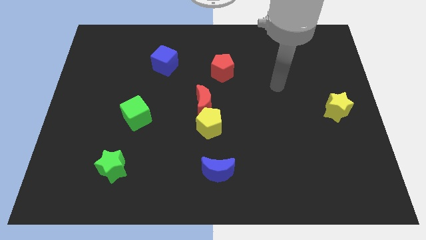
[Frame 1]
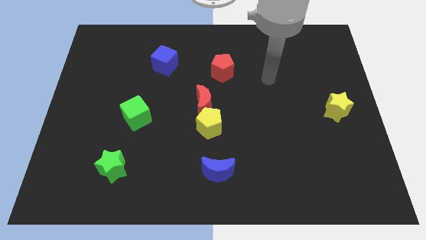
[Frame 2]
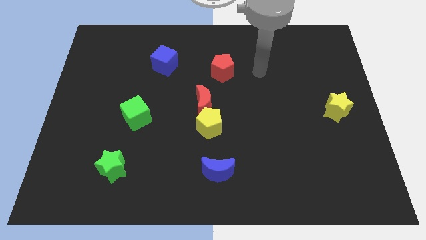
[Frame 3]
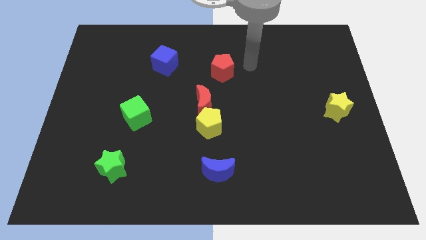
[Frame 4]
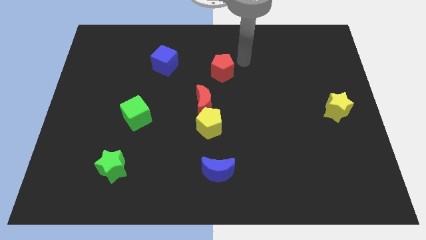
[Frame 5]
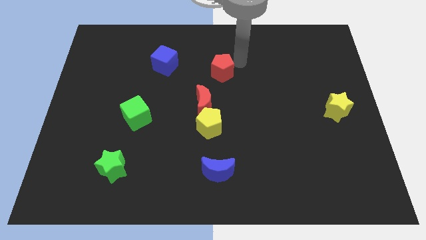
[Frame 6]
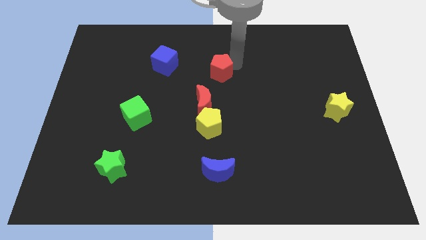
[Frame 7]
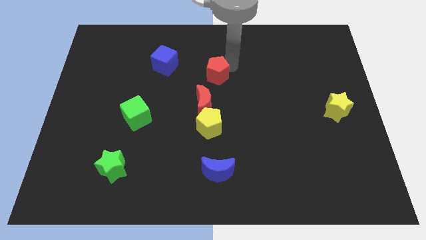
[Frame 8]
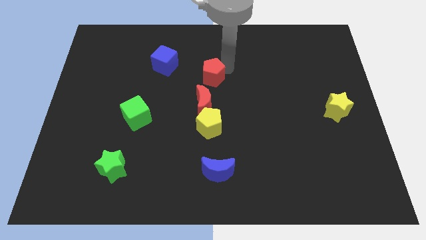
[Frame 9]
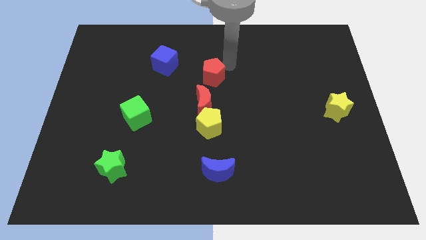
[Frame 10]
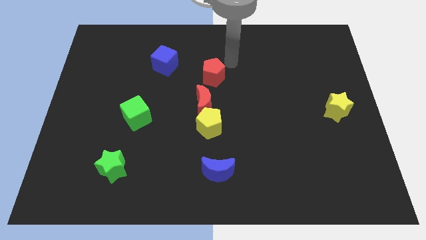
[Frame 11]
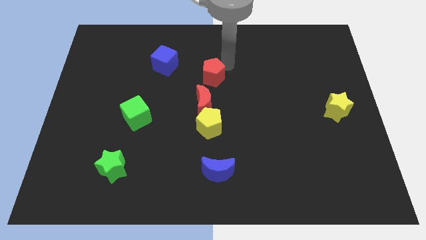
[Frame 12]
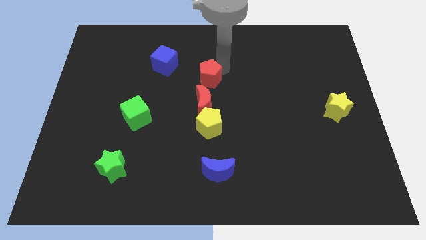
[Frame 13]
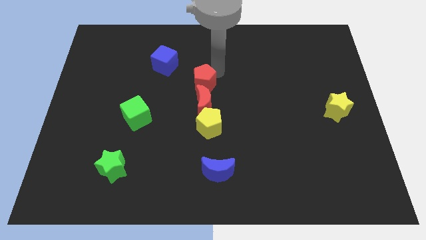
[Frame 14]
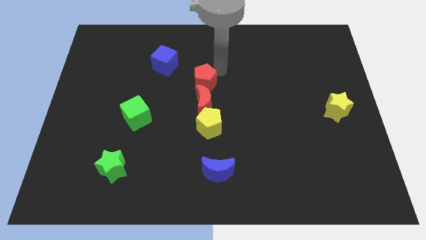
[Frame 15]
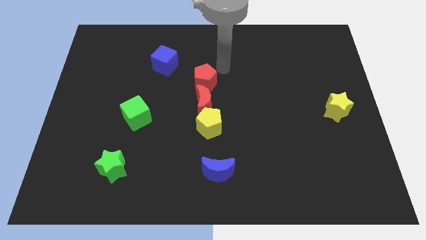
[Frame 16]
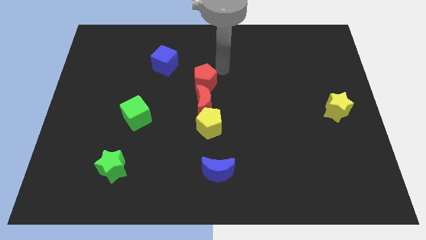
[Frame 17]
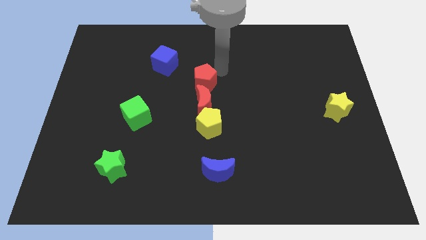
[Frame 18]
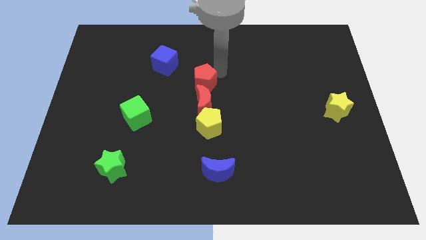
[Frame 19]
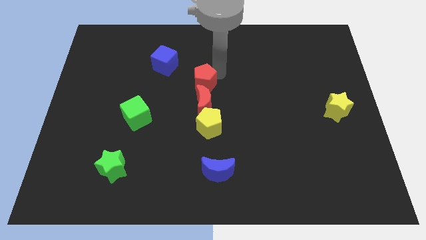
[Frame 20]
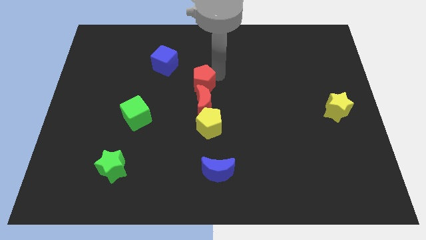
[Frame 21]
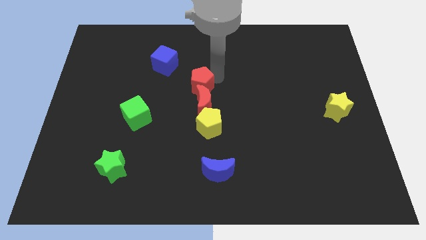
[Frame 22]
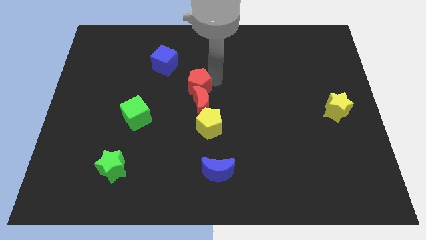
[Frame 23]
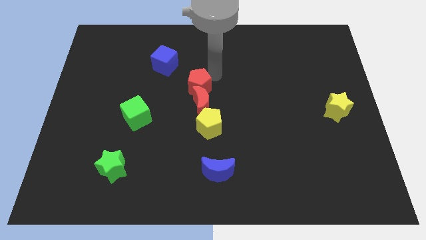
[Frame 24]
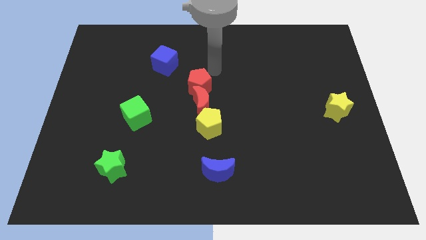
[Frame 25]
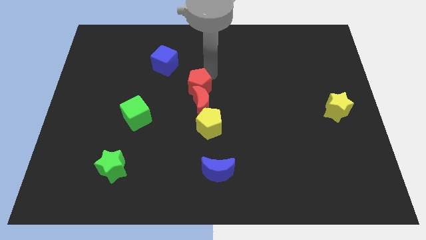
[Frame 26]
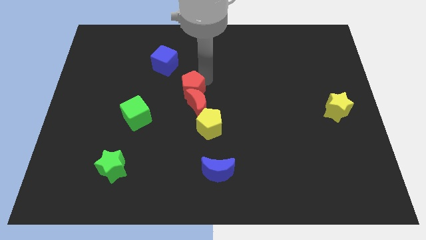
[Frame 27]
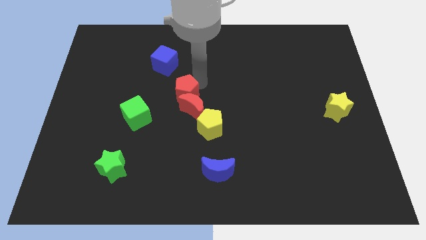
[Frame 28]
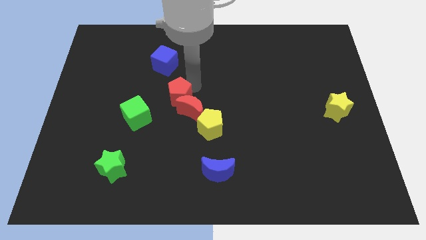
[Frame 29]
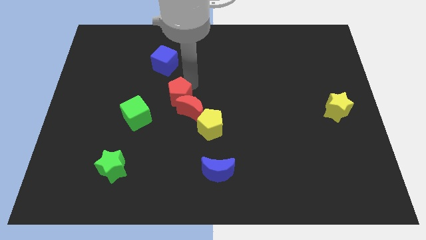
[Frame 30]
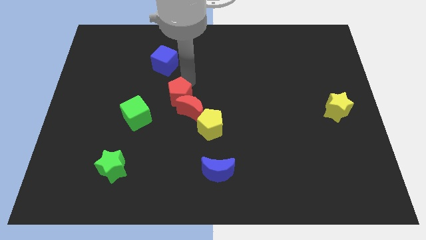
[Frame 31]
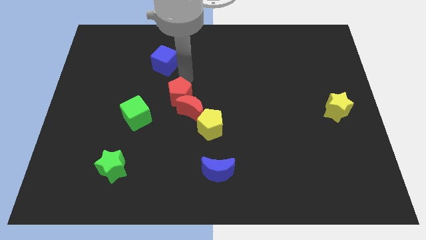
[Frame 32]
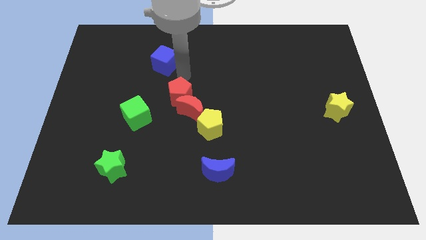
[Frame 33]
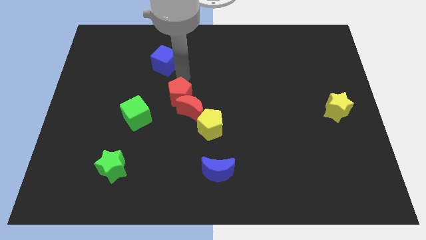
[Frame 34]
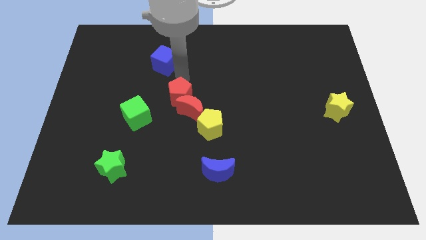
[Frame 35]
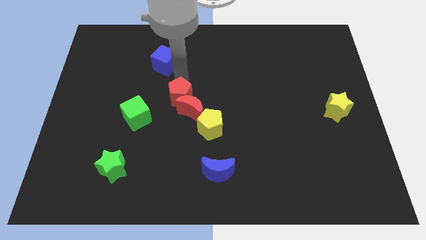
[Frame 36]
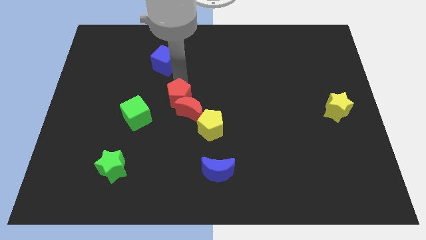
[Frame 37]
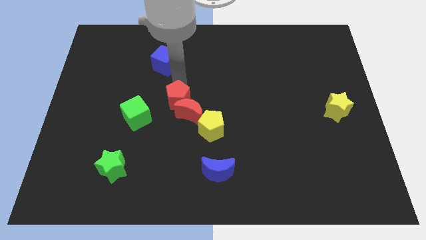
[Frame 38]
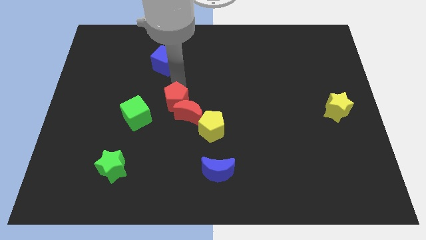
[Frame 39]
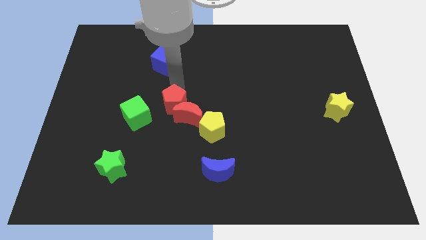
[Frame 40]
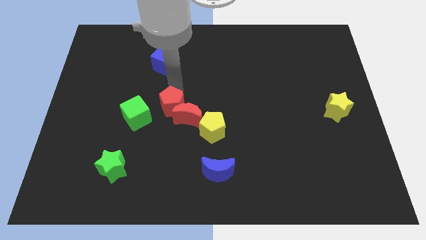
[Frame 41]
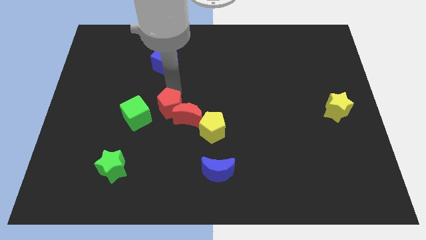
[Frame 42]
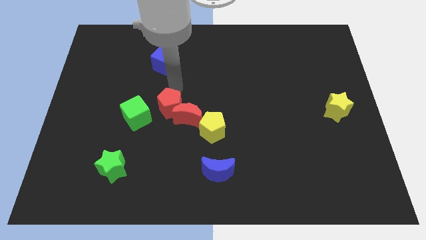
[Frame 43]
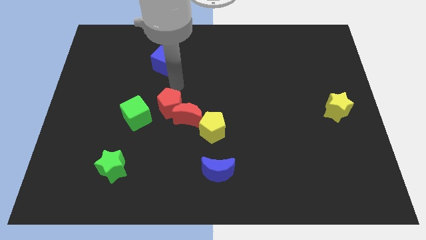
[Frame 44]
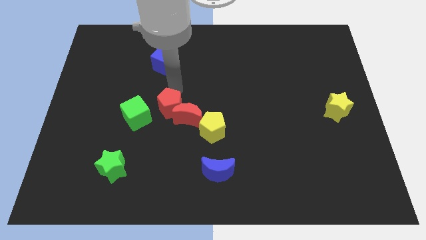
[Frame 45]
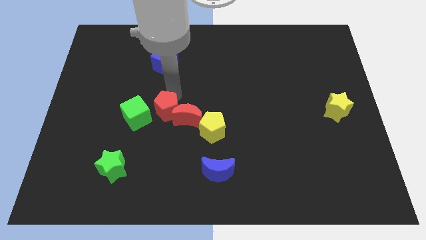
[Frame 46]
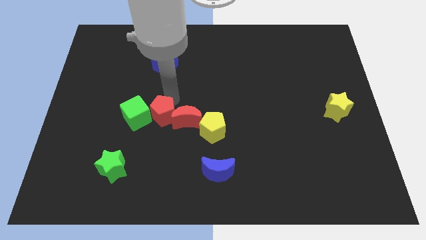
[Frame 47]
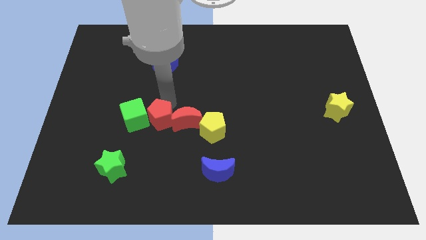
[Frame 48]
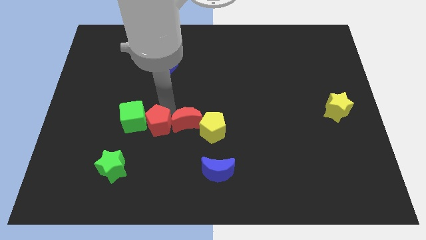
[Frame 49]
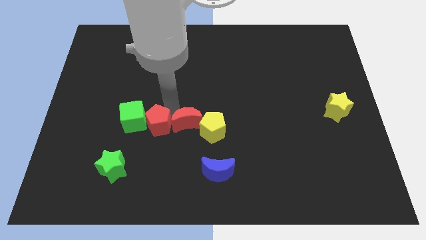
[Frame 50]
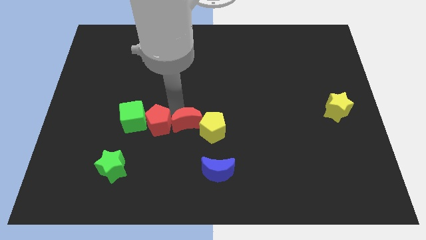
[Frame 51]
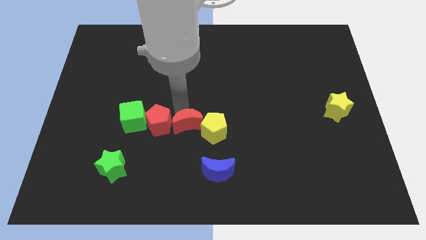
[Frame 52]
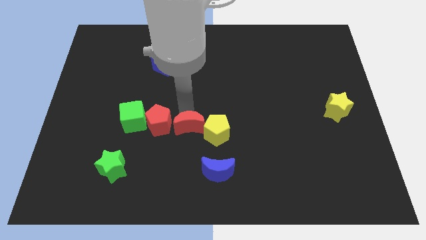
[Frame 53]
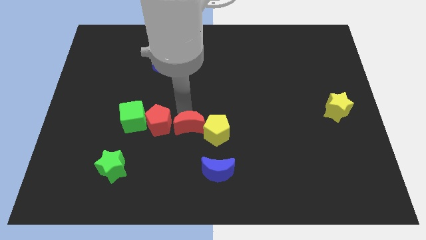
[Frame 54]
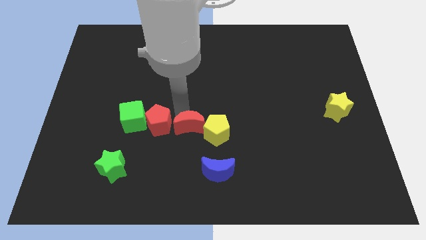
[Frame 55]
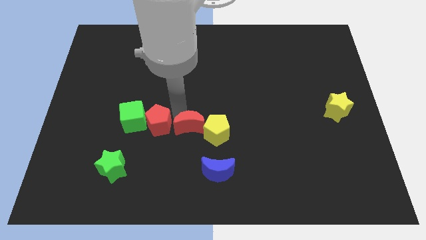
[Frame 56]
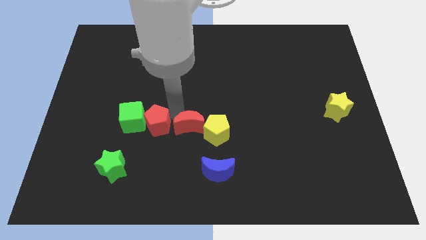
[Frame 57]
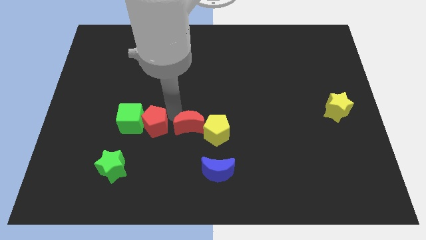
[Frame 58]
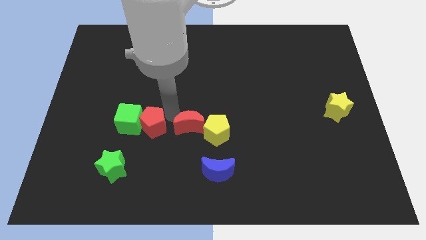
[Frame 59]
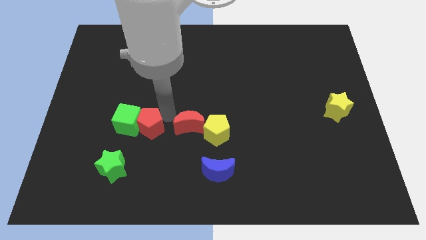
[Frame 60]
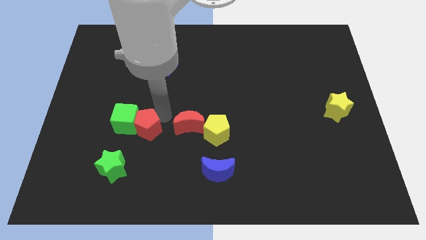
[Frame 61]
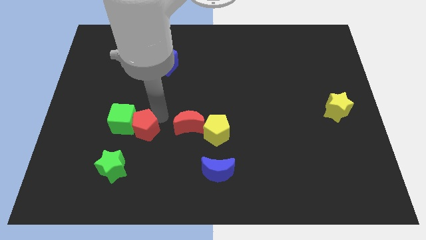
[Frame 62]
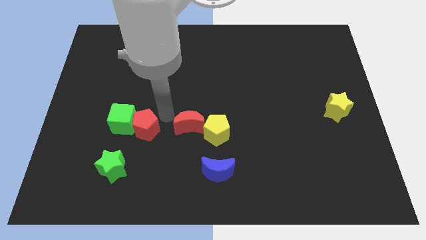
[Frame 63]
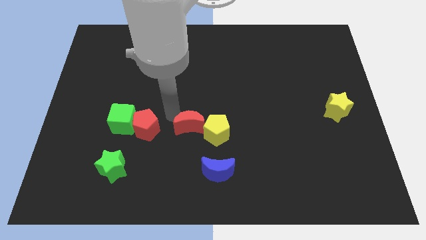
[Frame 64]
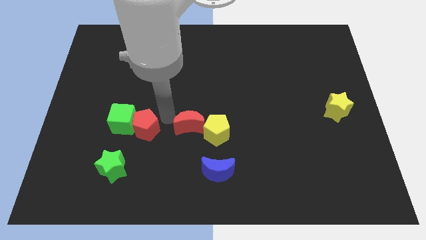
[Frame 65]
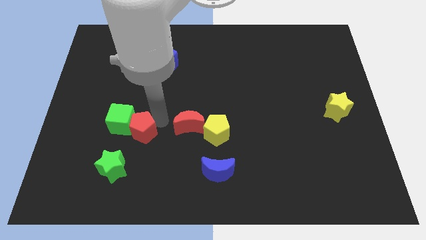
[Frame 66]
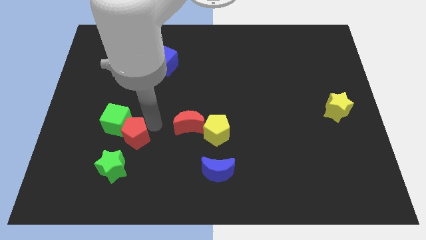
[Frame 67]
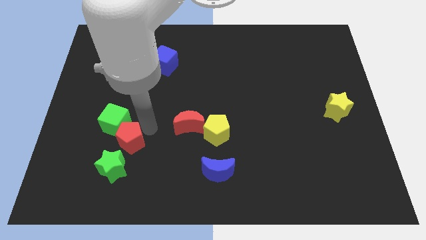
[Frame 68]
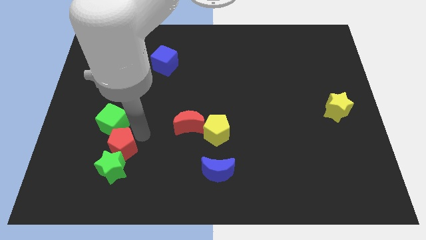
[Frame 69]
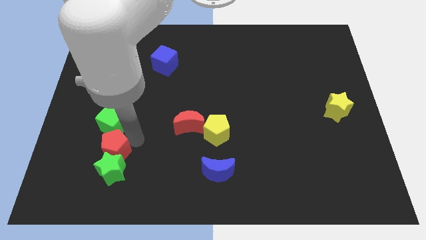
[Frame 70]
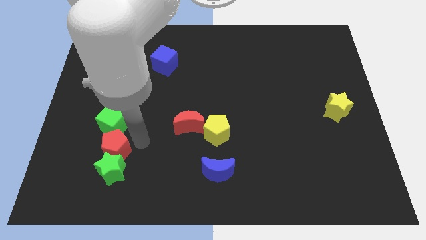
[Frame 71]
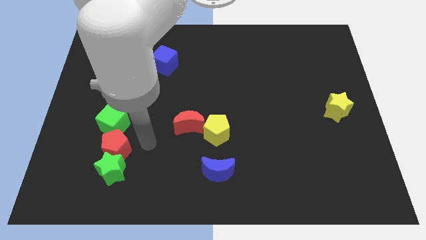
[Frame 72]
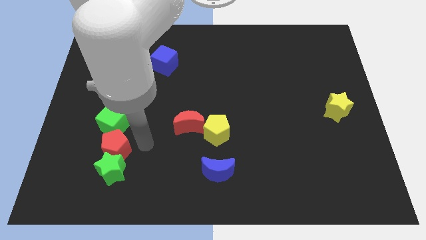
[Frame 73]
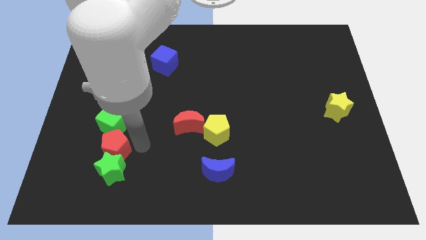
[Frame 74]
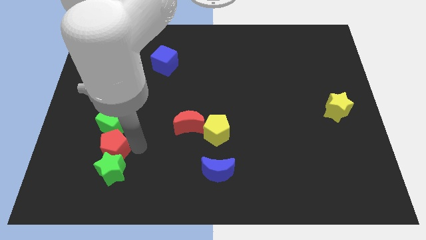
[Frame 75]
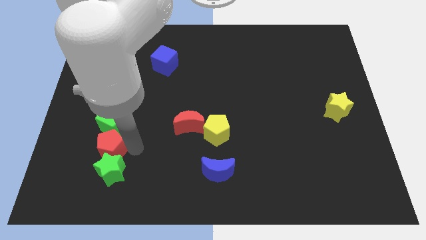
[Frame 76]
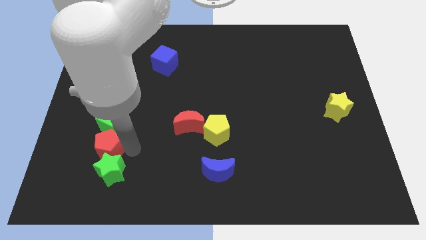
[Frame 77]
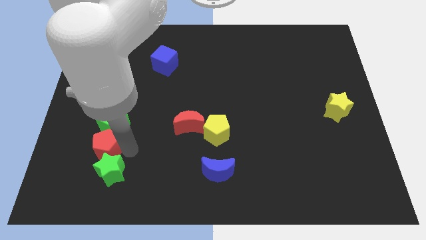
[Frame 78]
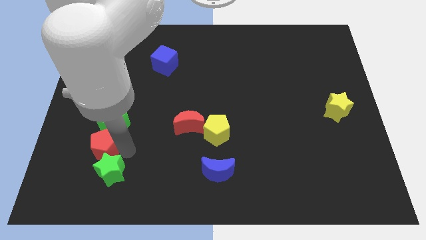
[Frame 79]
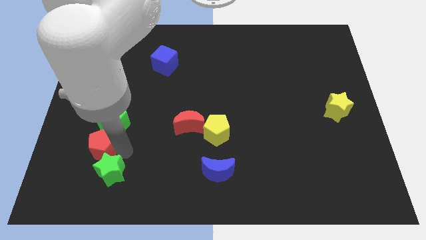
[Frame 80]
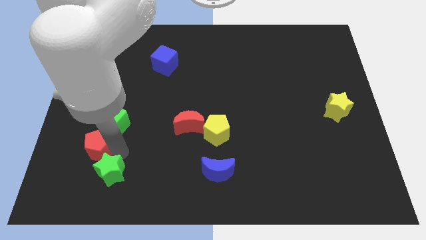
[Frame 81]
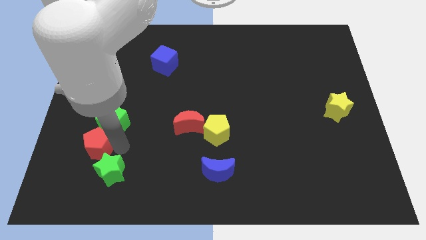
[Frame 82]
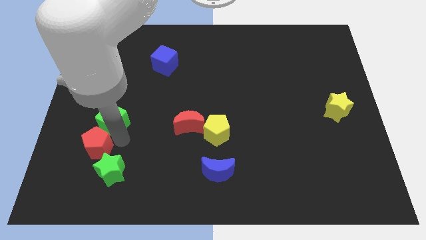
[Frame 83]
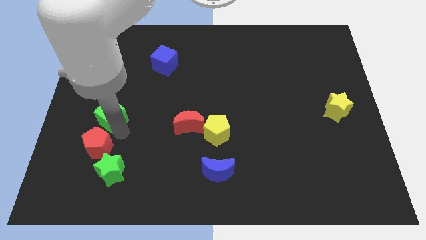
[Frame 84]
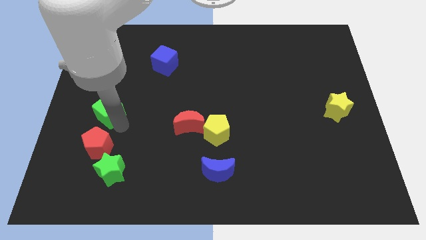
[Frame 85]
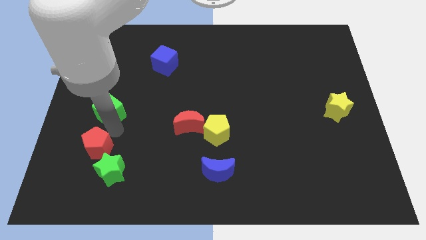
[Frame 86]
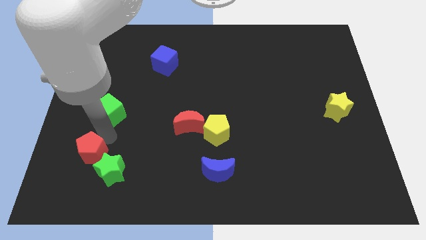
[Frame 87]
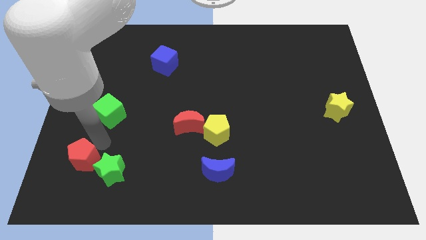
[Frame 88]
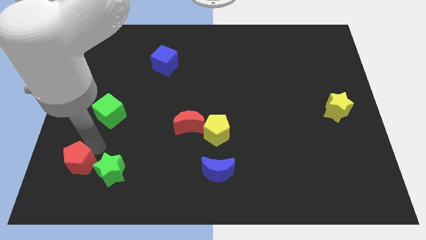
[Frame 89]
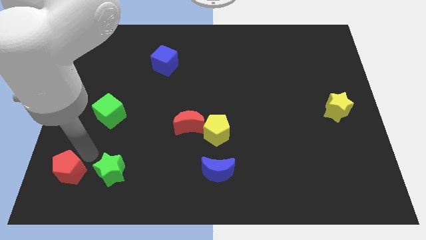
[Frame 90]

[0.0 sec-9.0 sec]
push the red pentagon to the bottom left corner
